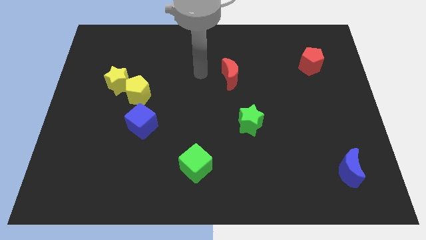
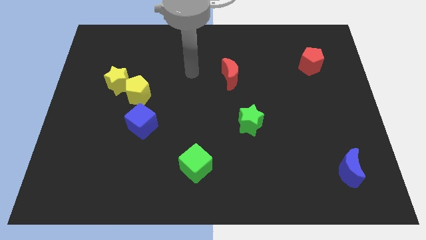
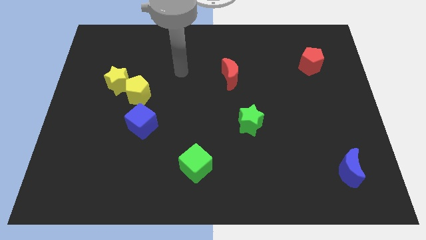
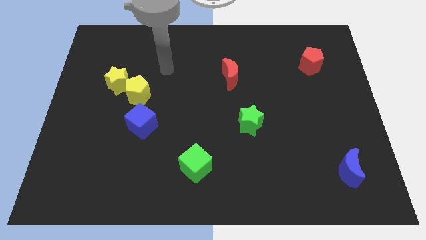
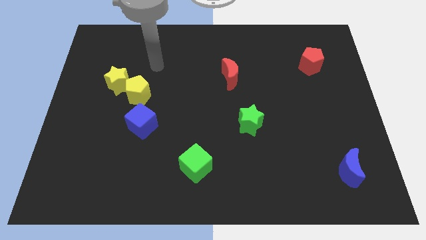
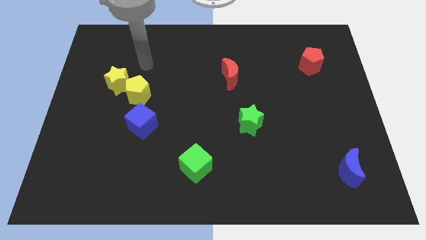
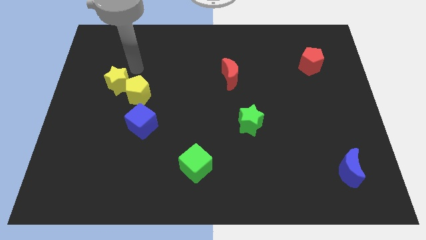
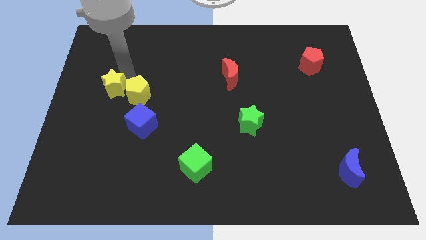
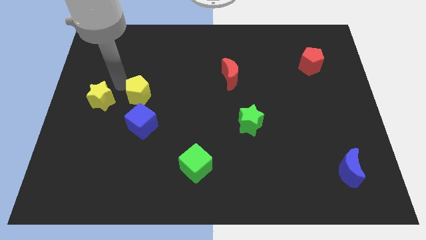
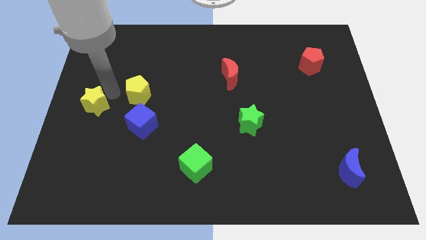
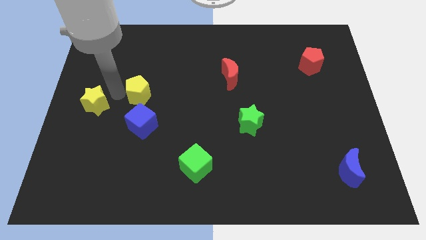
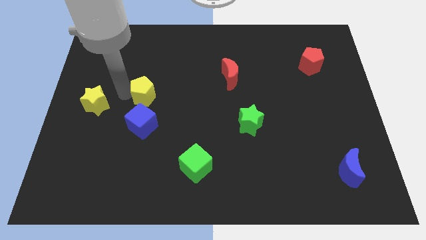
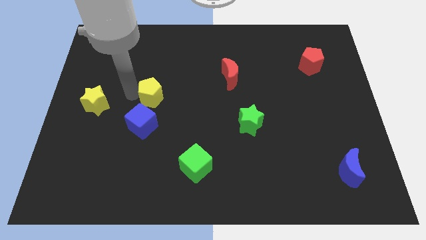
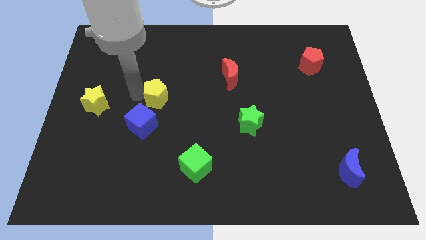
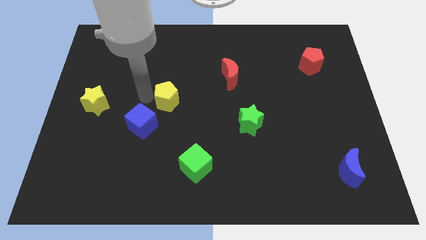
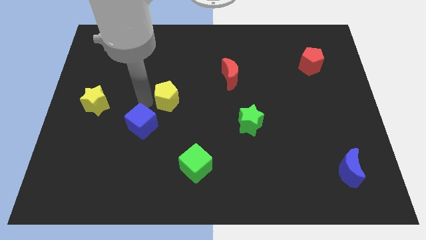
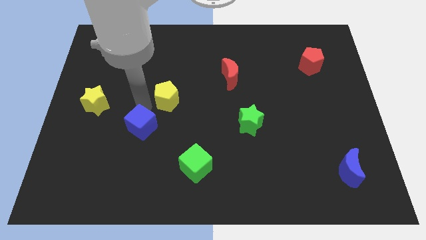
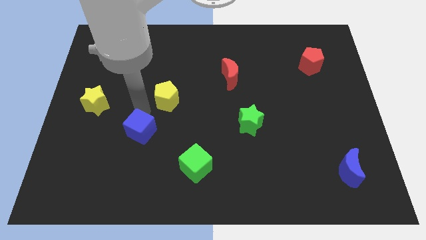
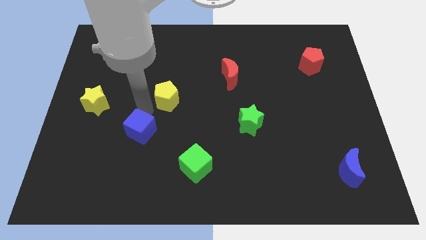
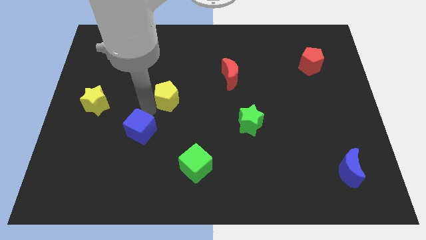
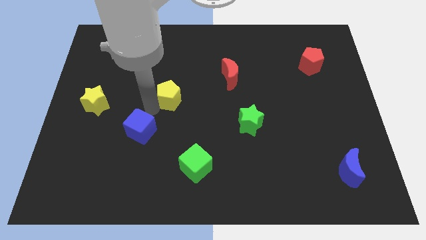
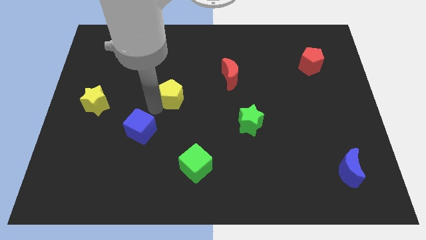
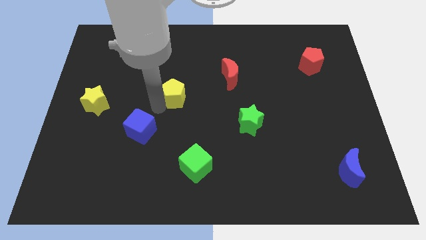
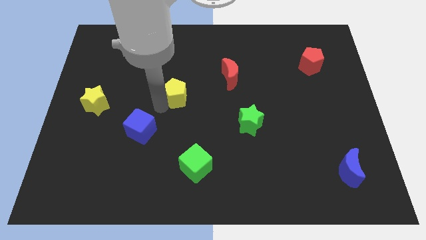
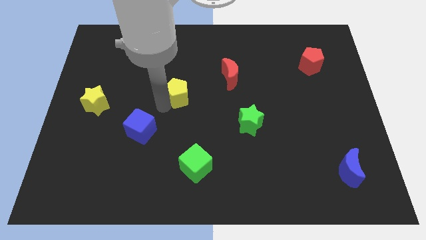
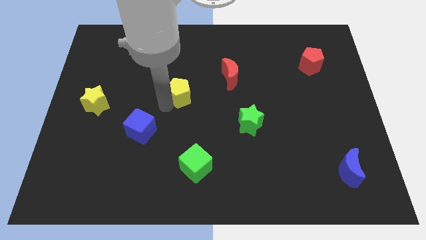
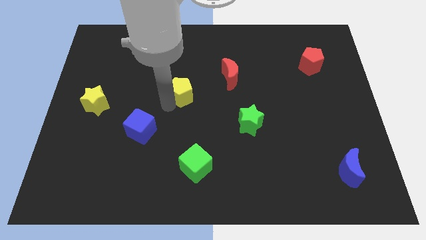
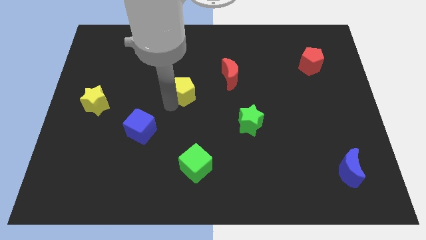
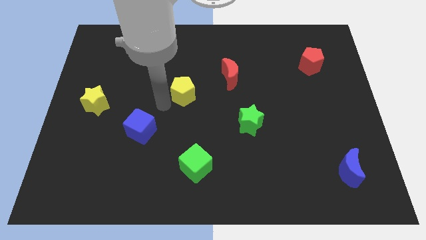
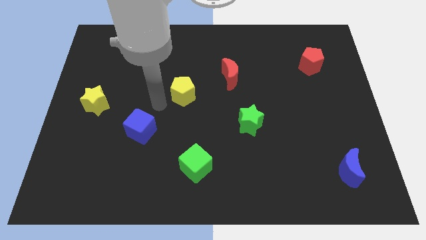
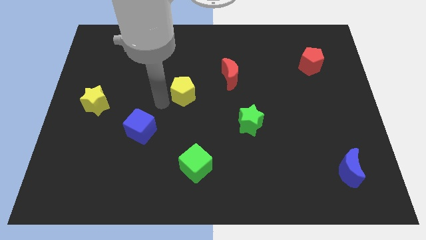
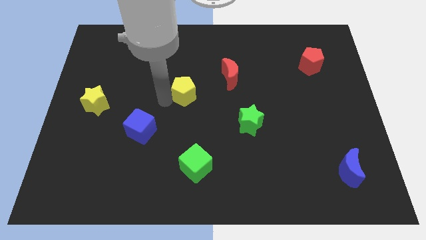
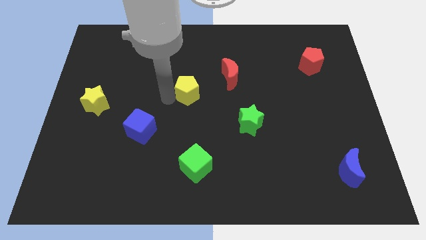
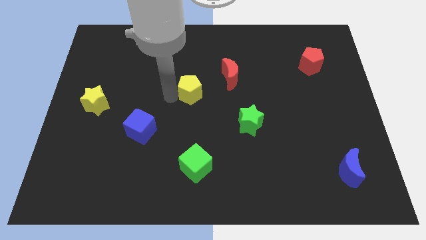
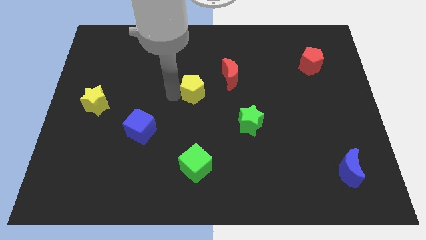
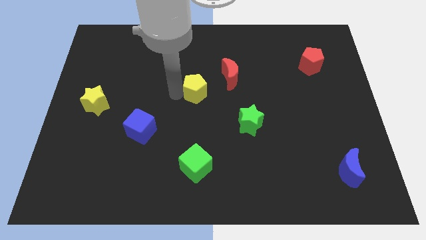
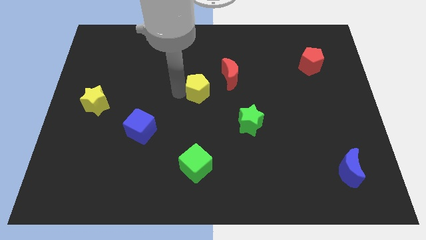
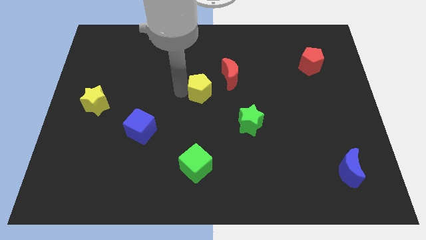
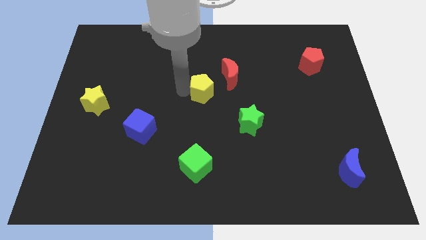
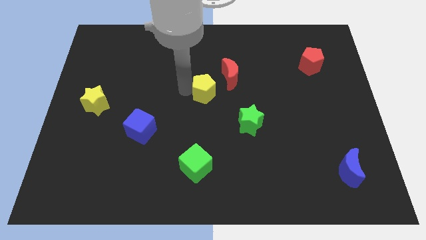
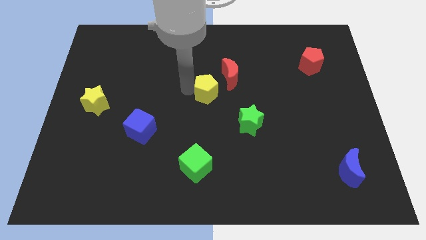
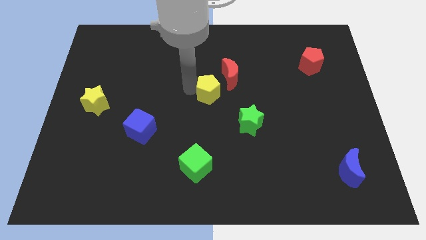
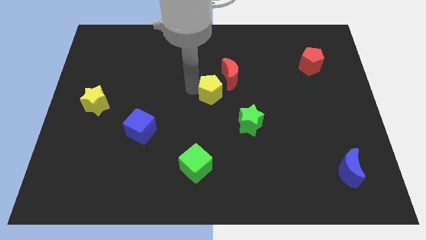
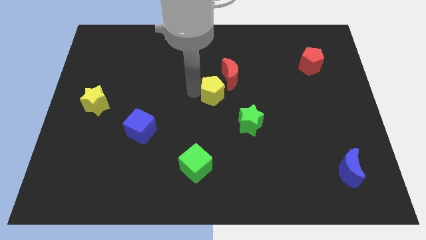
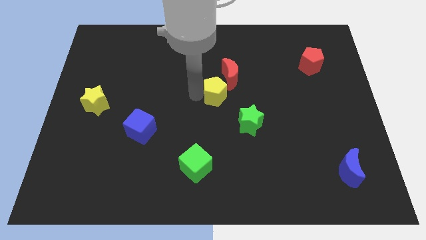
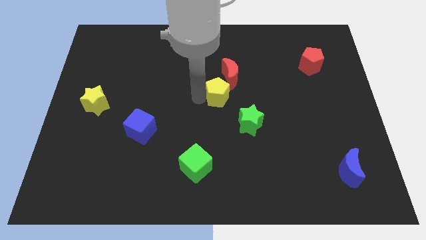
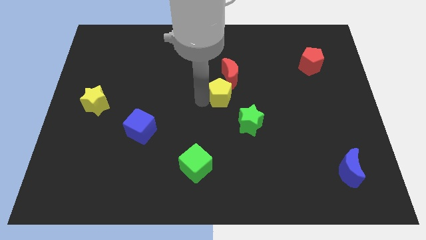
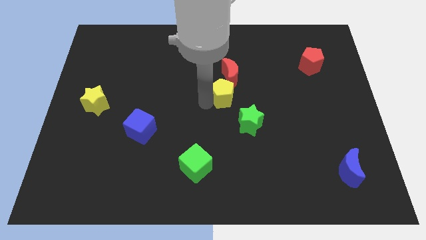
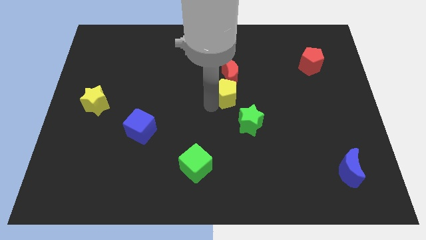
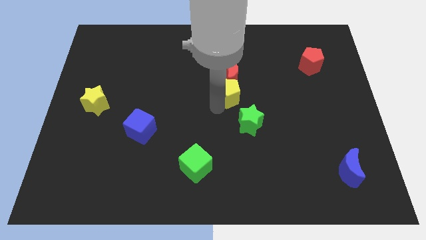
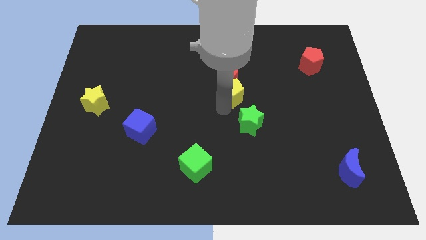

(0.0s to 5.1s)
push the yellow pentagon towards the red moon

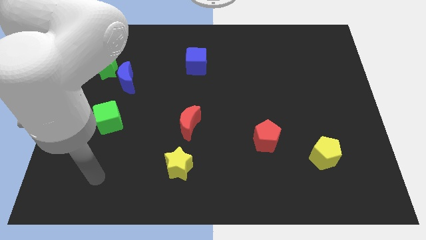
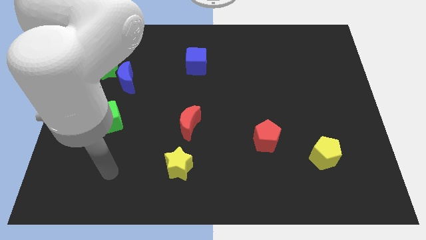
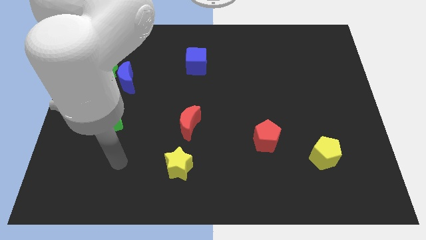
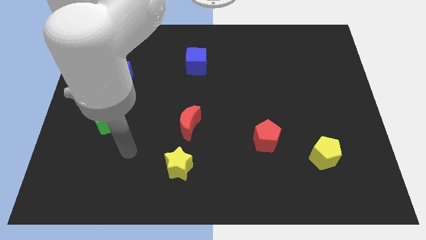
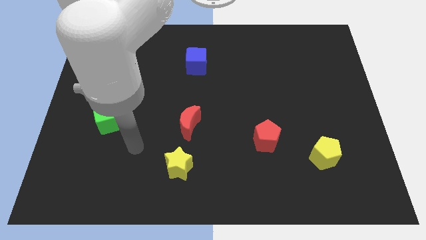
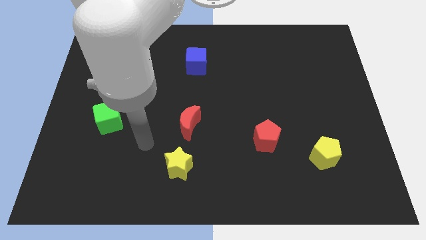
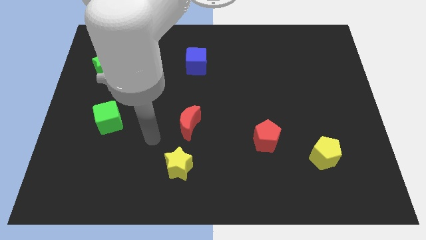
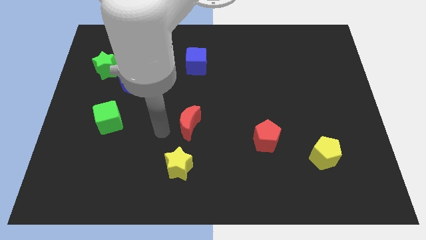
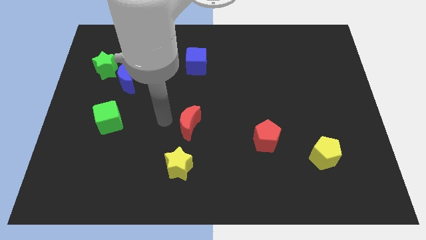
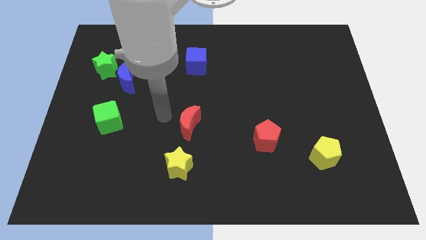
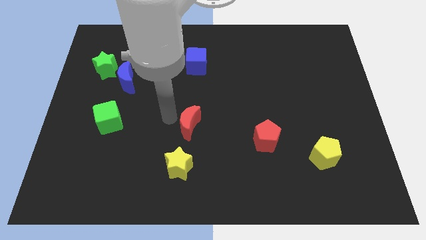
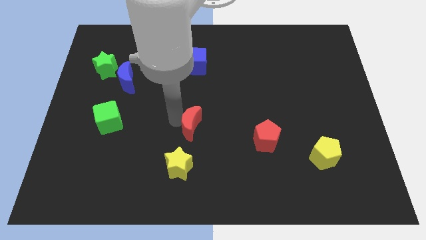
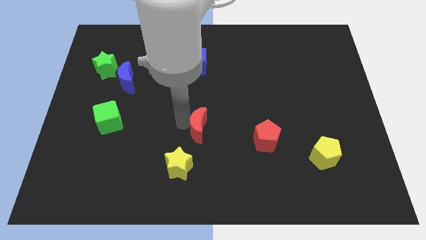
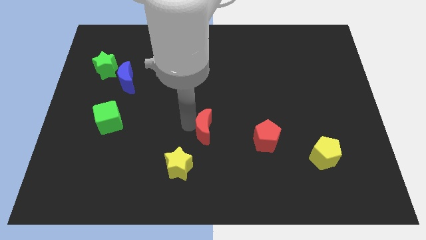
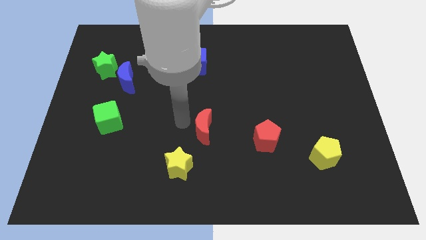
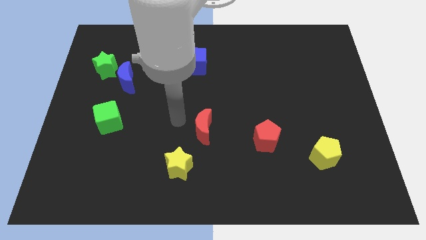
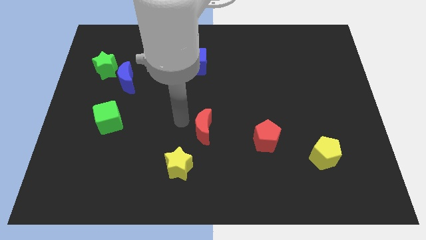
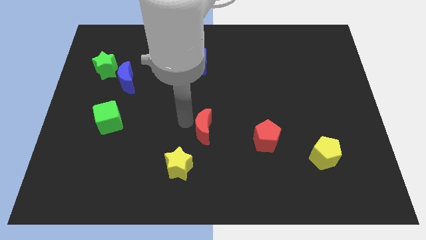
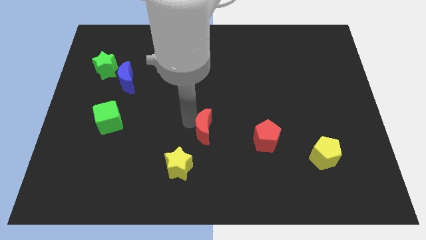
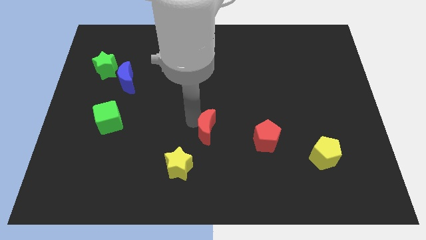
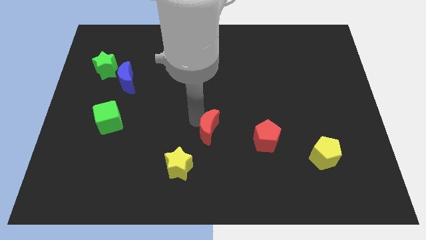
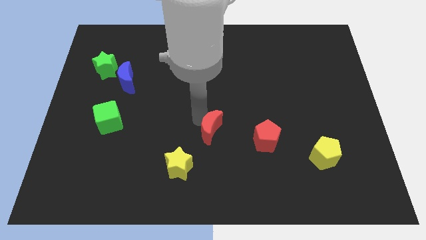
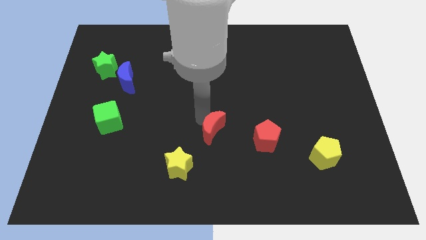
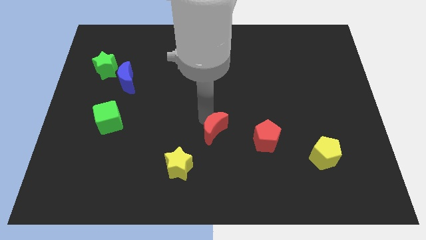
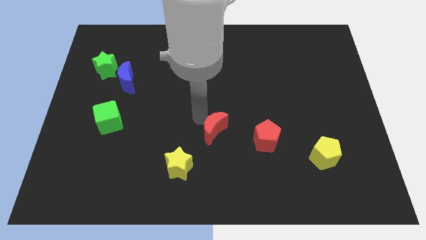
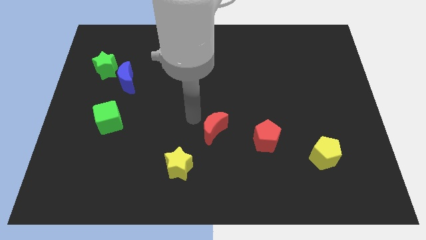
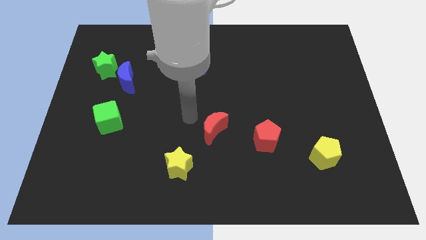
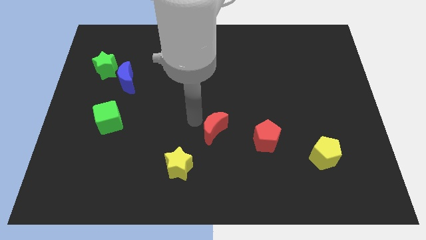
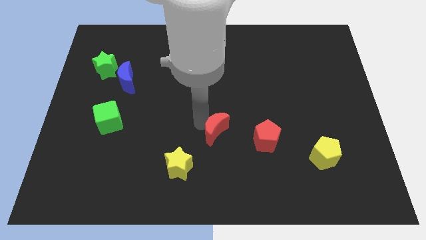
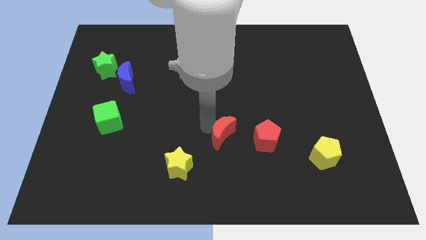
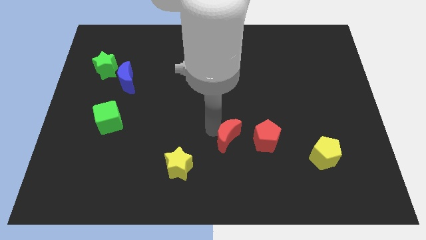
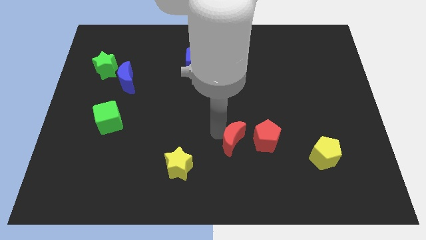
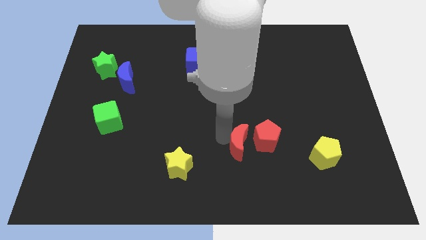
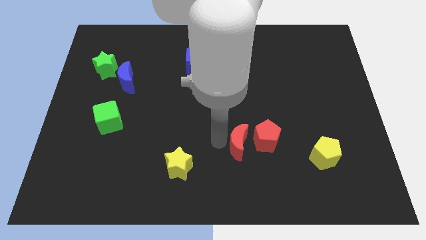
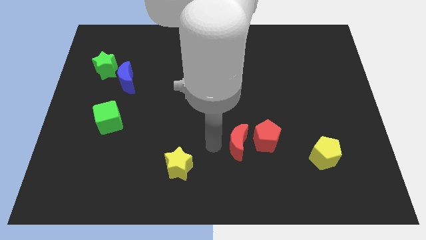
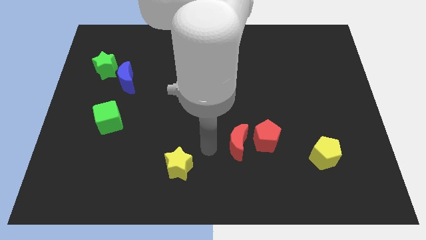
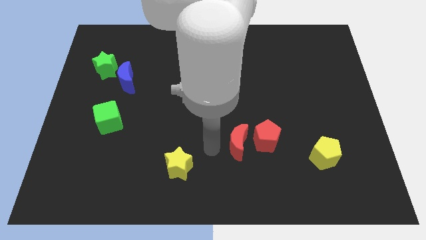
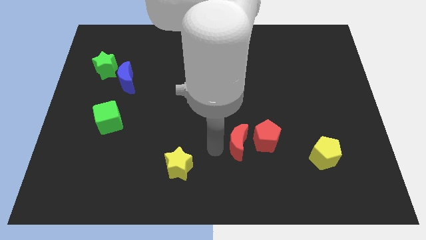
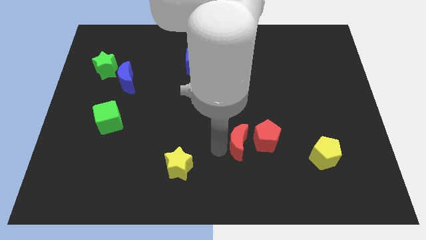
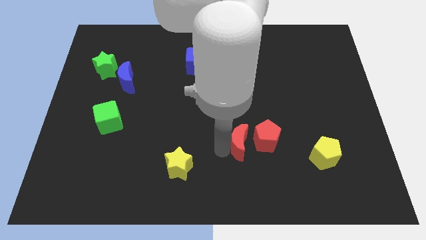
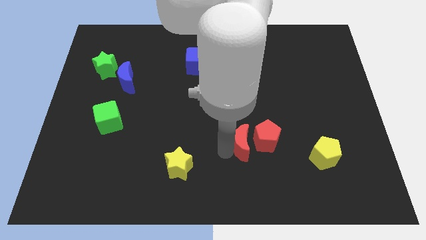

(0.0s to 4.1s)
slide the red moon to the red pentagon
